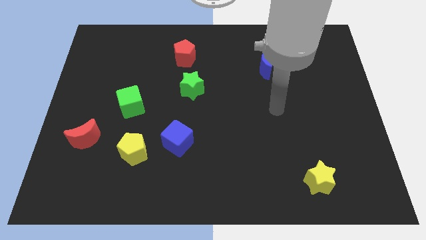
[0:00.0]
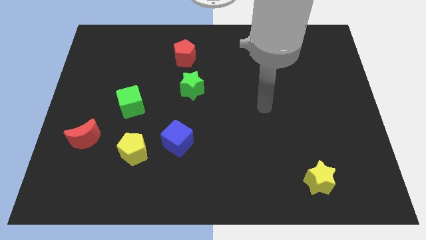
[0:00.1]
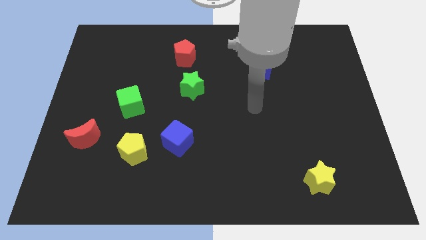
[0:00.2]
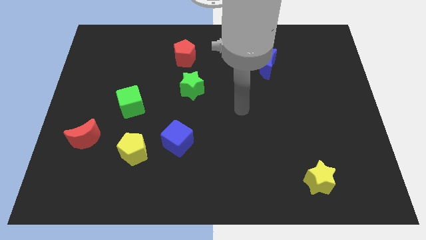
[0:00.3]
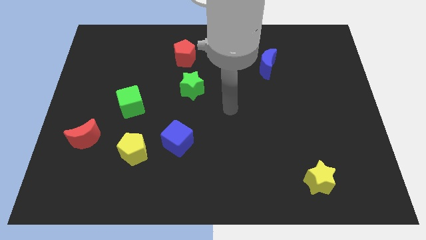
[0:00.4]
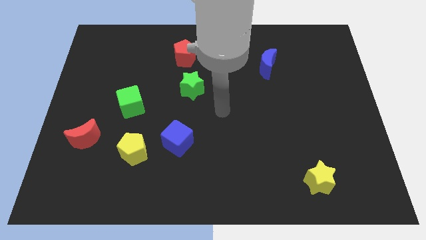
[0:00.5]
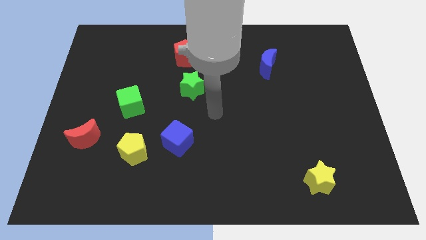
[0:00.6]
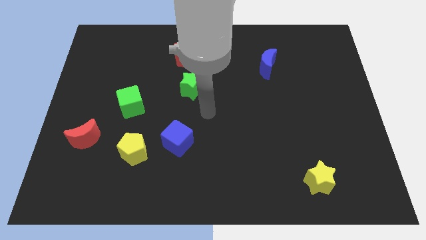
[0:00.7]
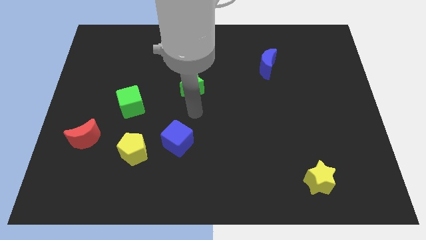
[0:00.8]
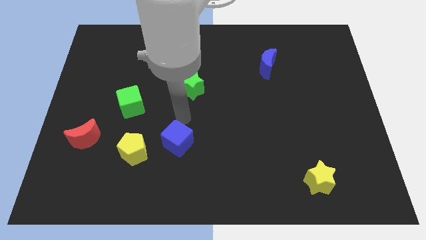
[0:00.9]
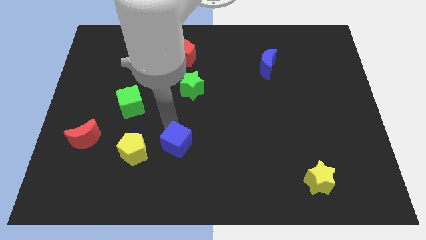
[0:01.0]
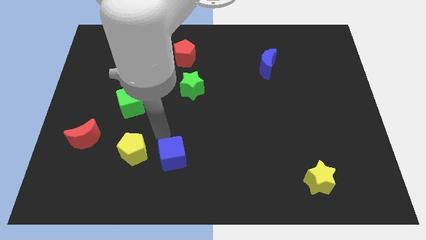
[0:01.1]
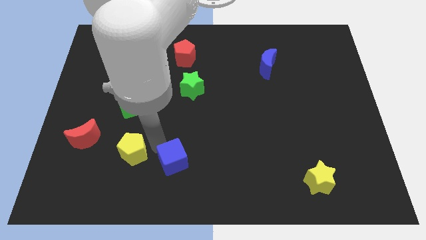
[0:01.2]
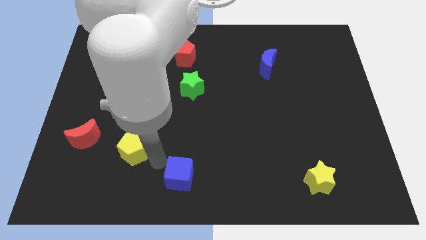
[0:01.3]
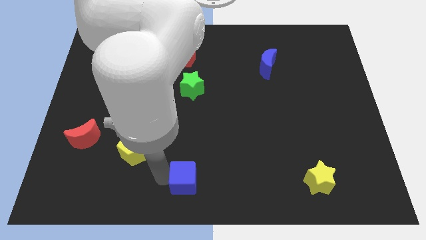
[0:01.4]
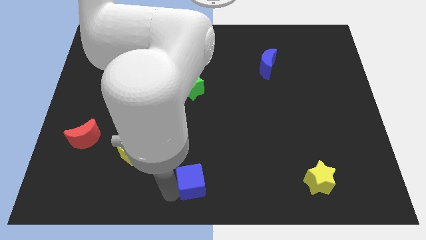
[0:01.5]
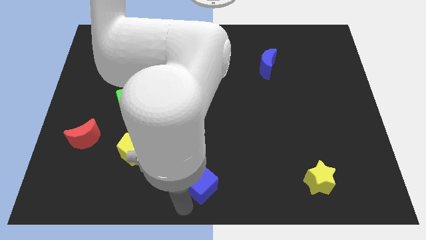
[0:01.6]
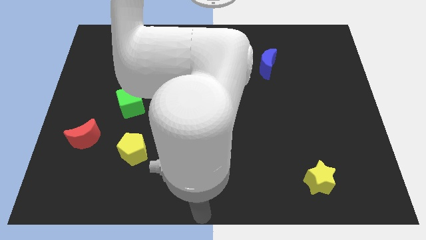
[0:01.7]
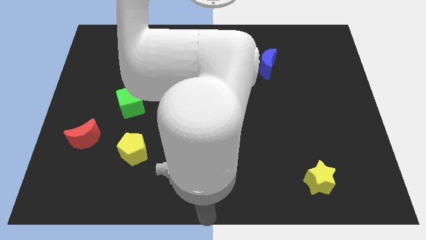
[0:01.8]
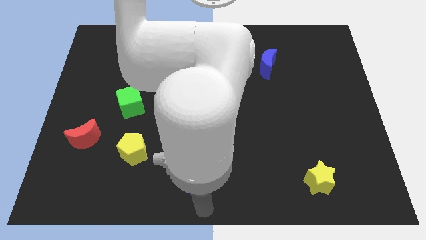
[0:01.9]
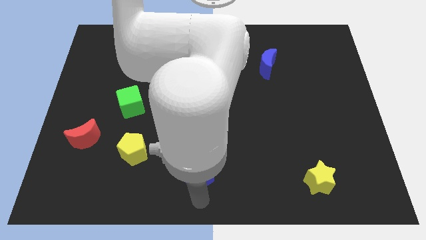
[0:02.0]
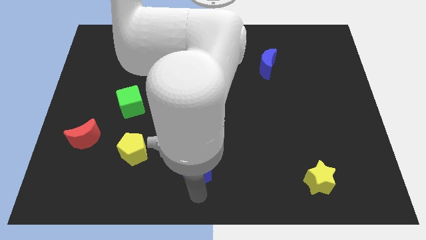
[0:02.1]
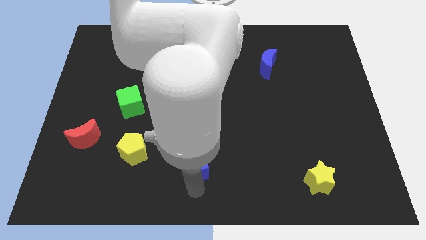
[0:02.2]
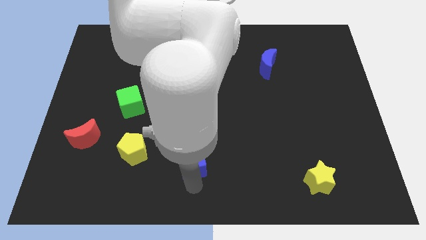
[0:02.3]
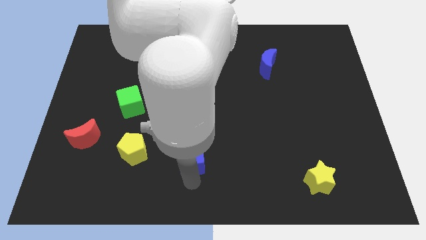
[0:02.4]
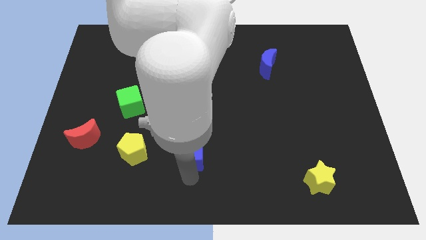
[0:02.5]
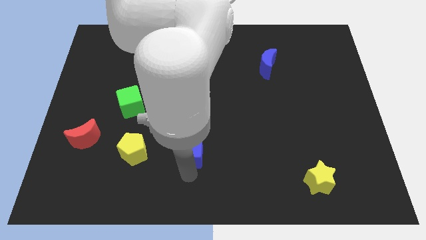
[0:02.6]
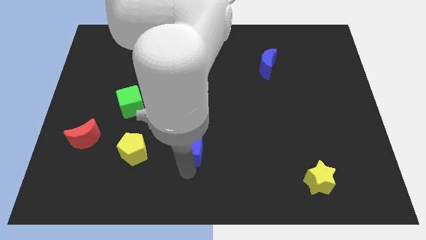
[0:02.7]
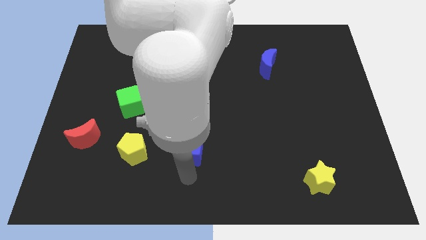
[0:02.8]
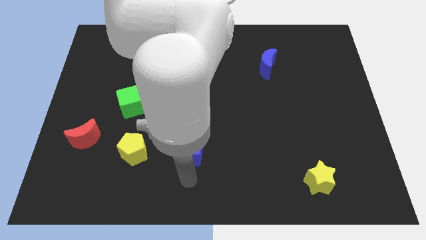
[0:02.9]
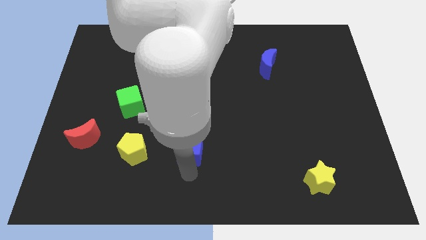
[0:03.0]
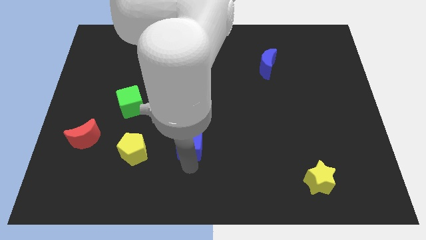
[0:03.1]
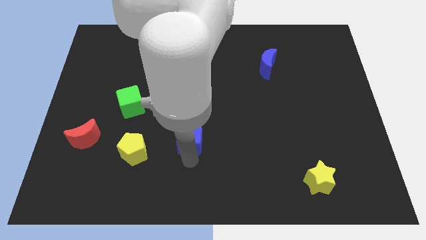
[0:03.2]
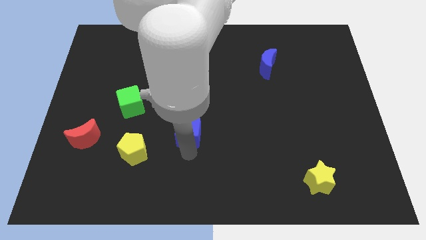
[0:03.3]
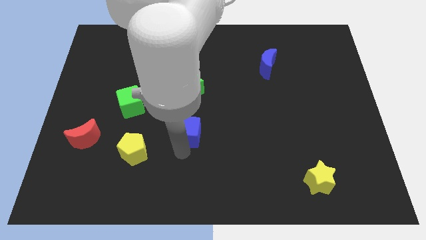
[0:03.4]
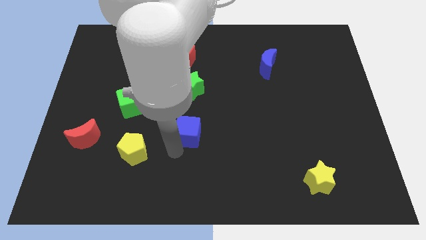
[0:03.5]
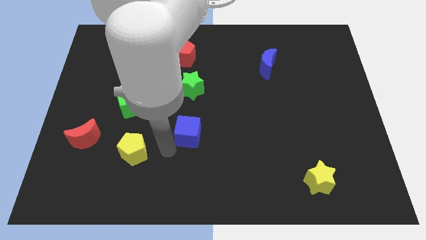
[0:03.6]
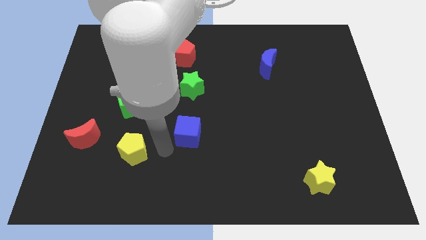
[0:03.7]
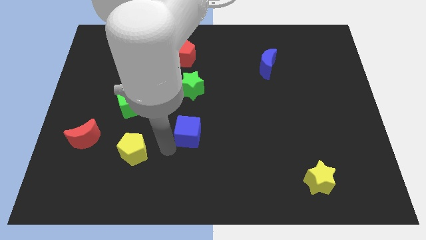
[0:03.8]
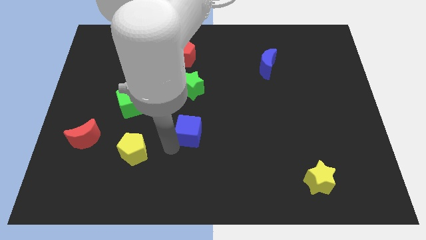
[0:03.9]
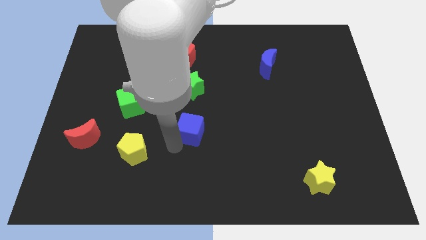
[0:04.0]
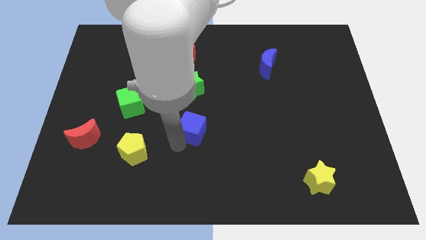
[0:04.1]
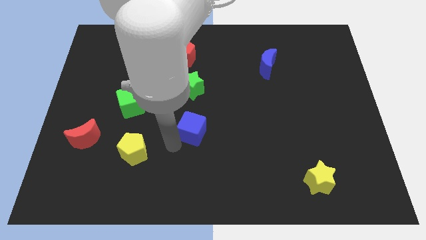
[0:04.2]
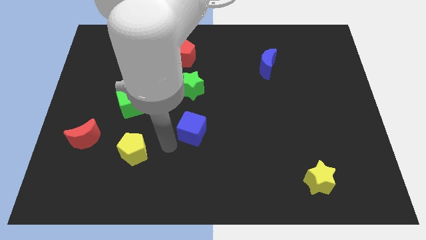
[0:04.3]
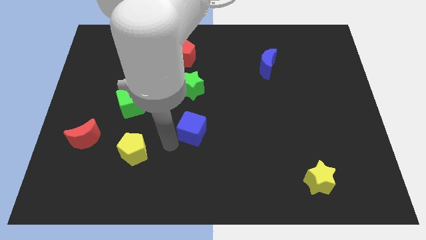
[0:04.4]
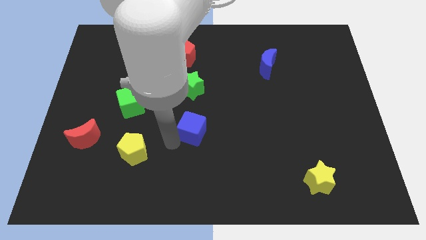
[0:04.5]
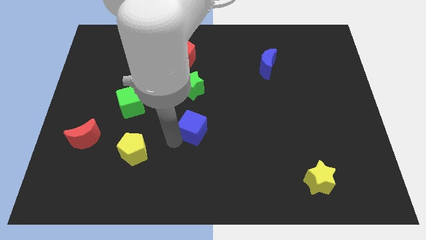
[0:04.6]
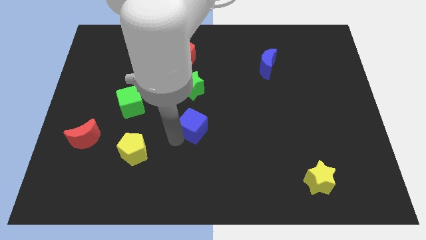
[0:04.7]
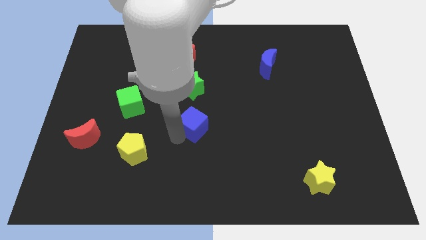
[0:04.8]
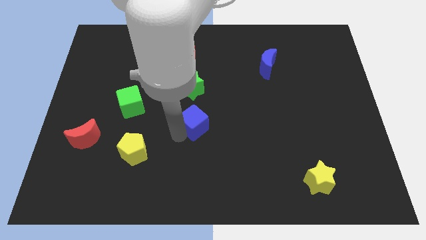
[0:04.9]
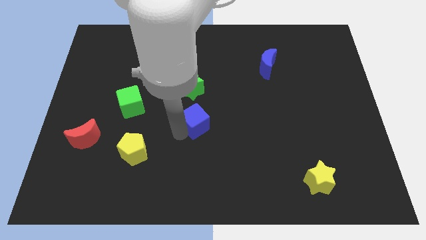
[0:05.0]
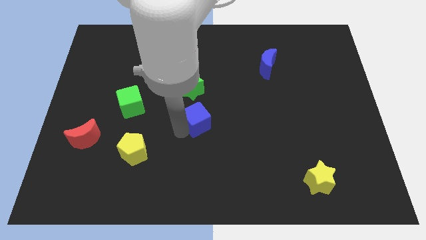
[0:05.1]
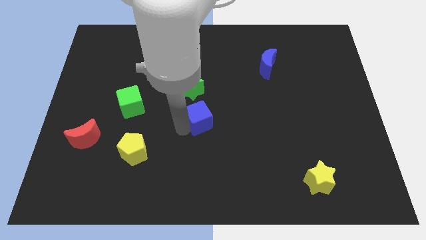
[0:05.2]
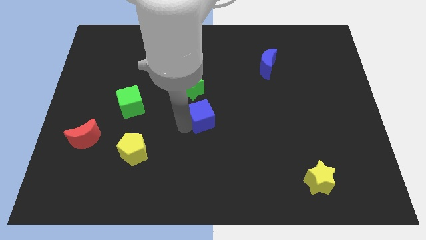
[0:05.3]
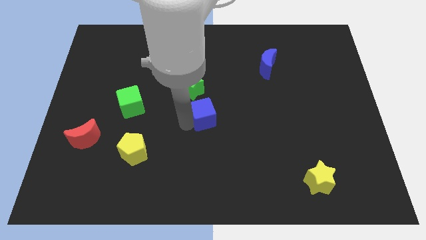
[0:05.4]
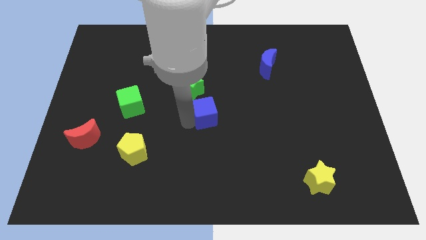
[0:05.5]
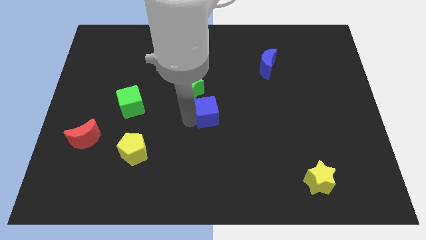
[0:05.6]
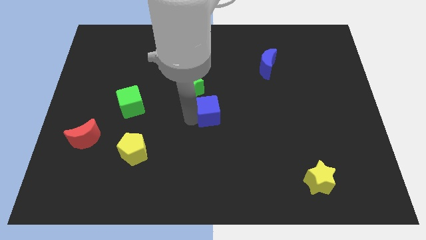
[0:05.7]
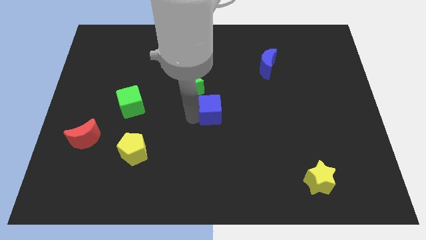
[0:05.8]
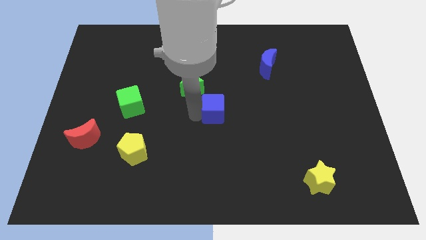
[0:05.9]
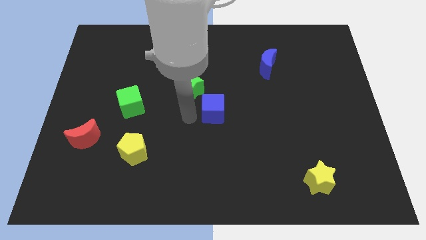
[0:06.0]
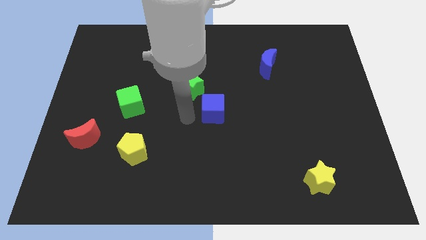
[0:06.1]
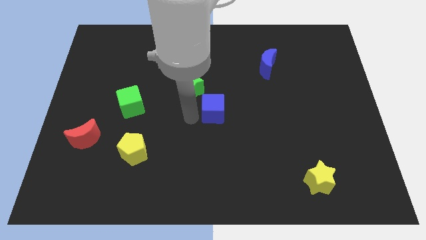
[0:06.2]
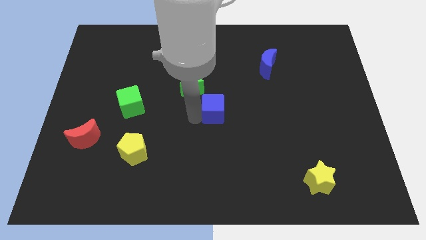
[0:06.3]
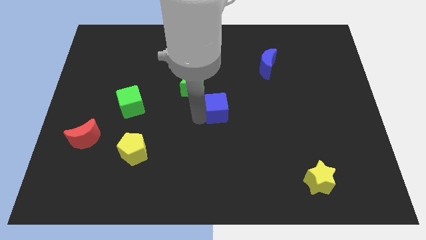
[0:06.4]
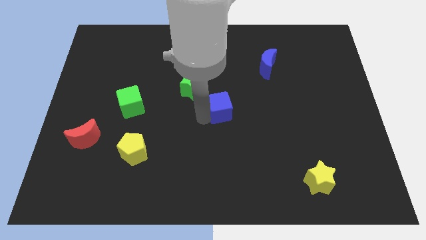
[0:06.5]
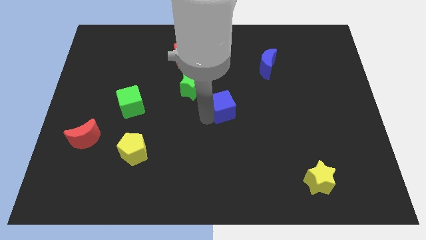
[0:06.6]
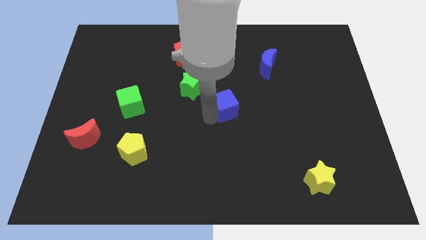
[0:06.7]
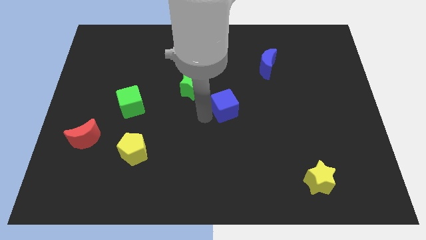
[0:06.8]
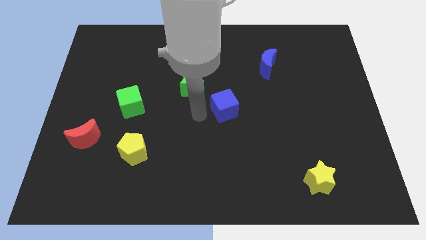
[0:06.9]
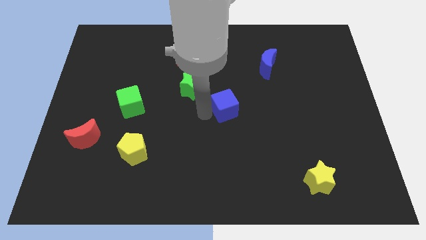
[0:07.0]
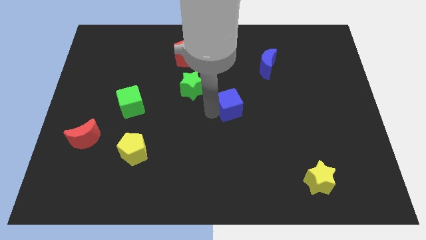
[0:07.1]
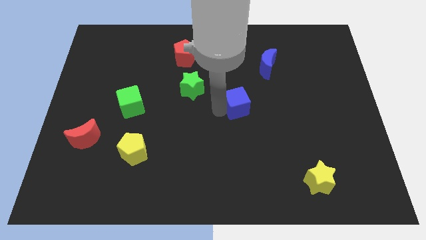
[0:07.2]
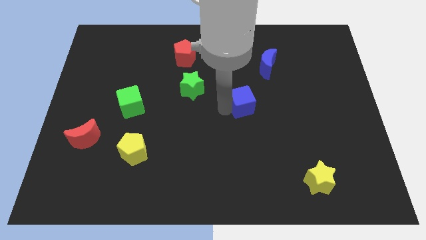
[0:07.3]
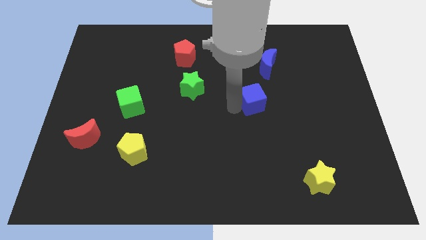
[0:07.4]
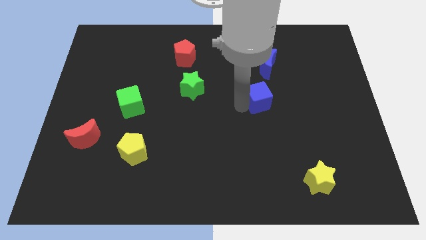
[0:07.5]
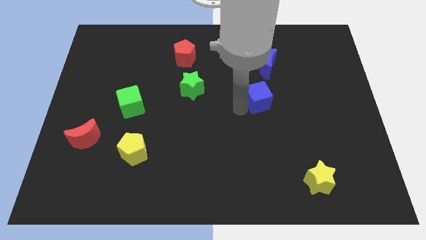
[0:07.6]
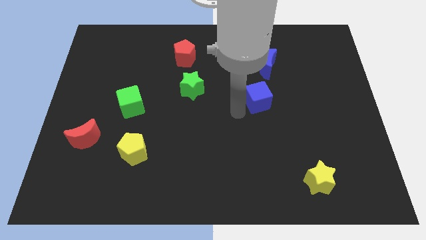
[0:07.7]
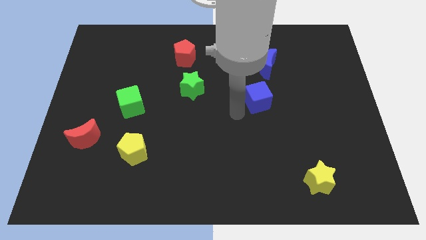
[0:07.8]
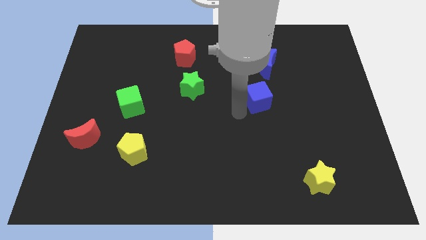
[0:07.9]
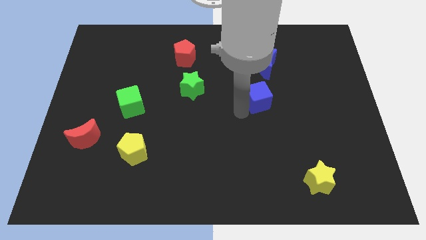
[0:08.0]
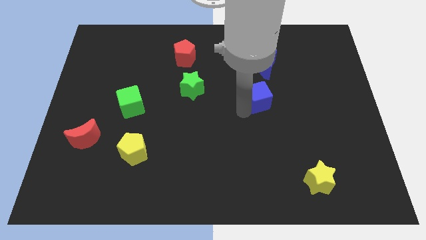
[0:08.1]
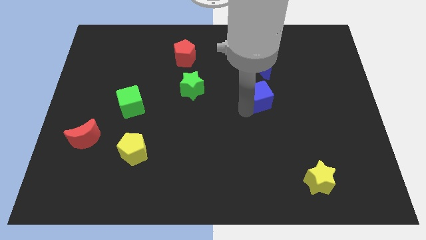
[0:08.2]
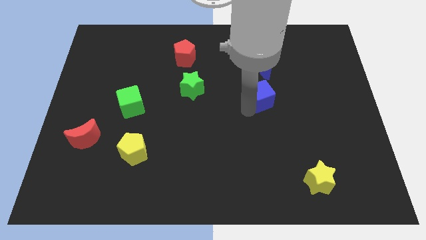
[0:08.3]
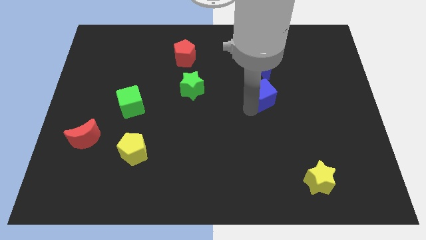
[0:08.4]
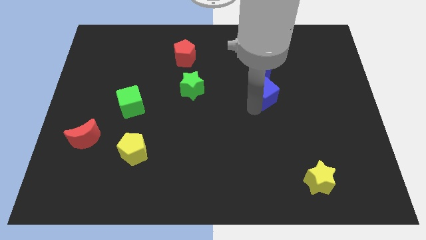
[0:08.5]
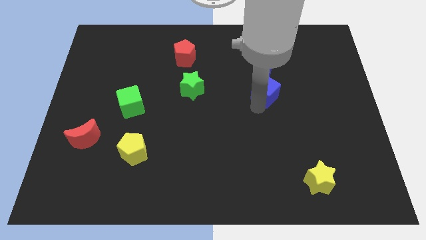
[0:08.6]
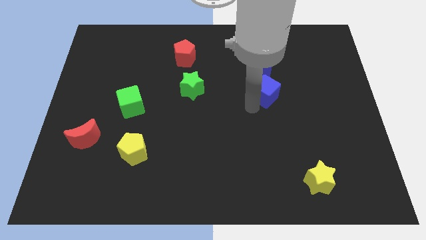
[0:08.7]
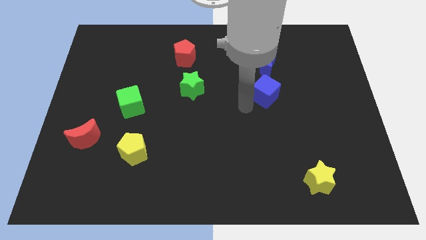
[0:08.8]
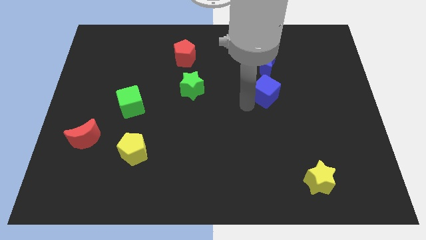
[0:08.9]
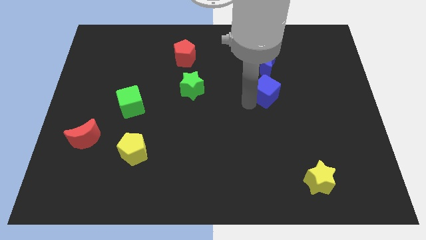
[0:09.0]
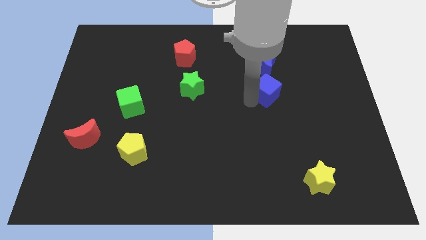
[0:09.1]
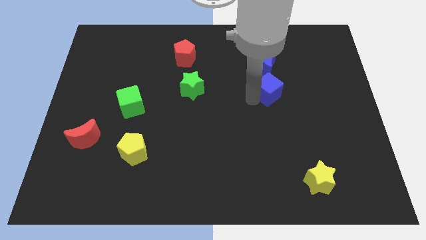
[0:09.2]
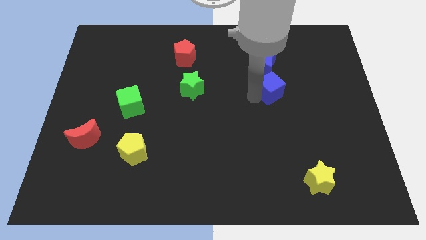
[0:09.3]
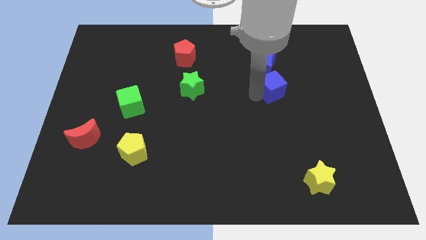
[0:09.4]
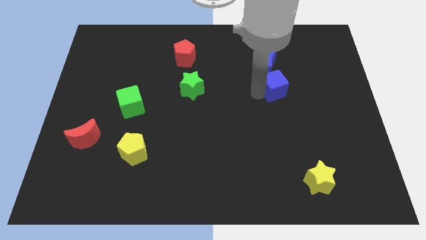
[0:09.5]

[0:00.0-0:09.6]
slide the blue cube diagonally down and to the right of the blue moon
